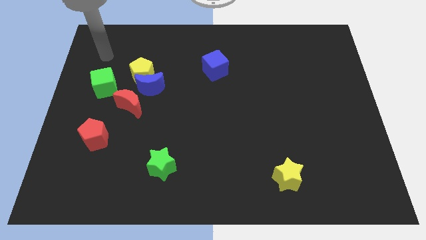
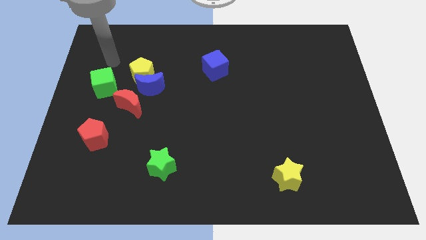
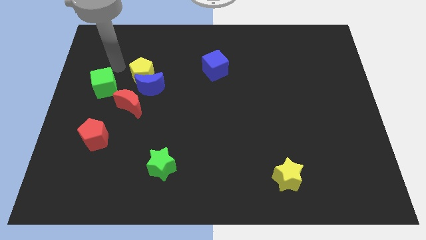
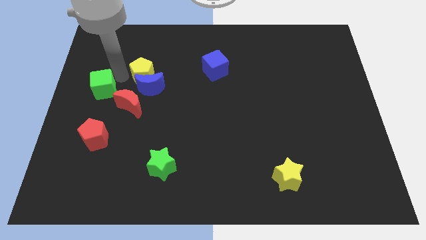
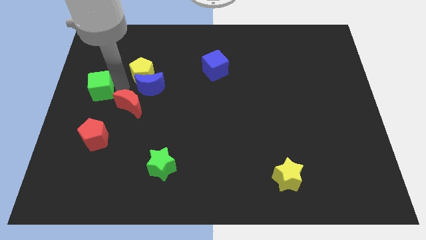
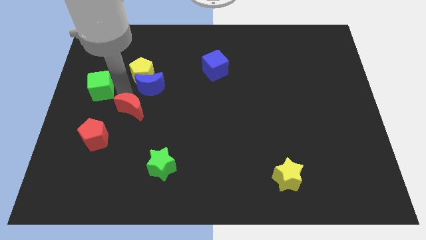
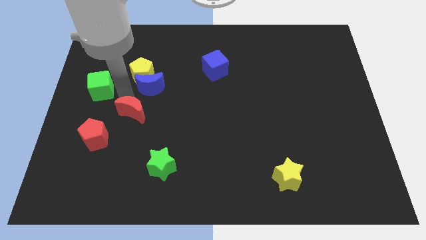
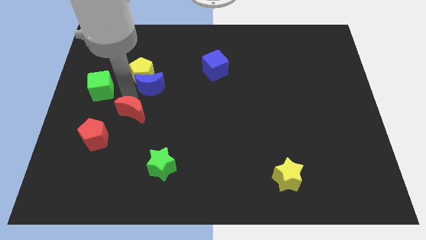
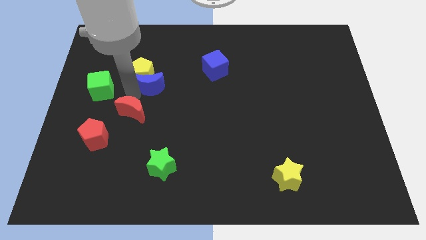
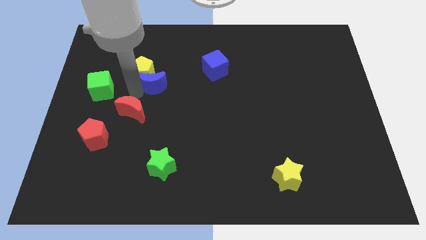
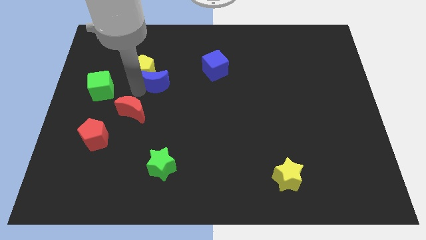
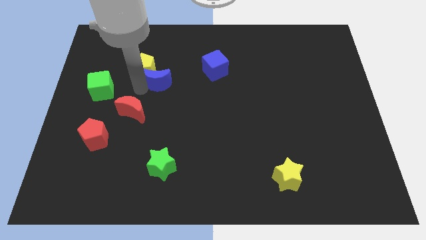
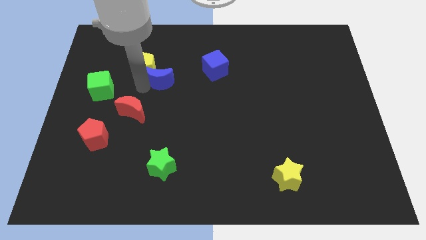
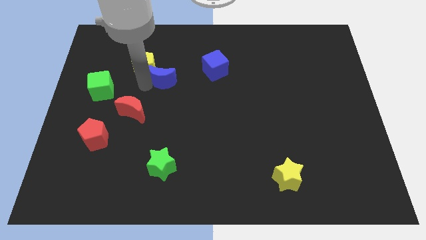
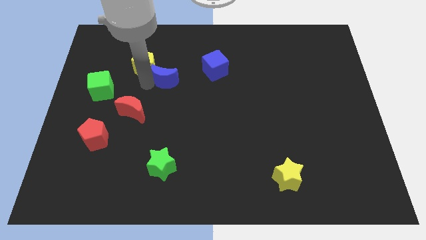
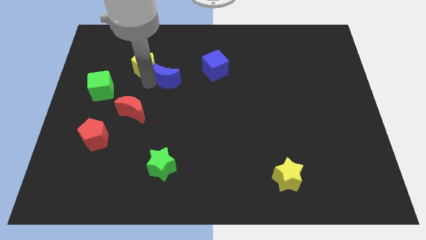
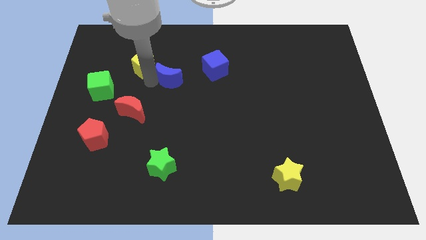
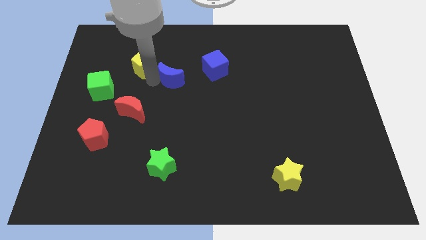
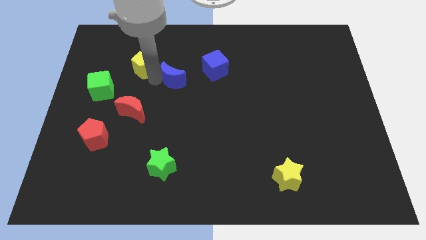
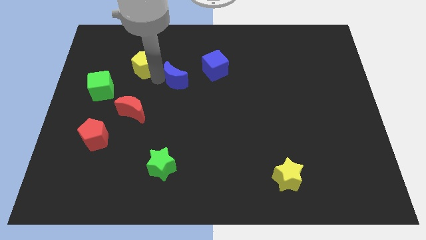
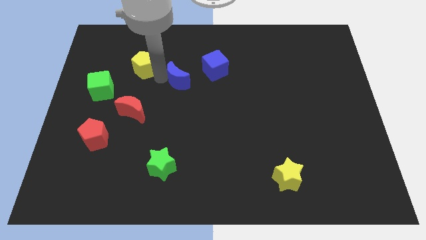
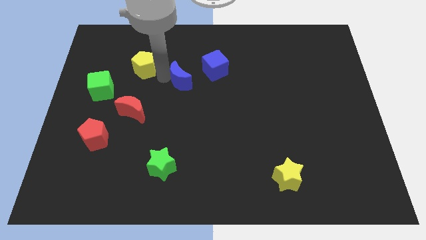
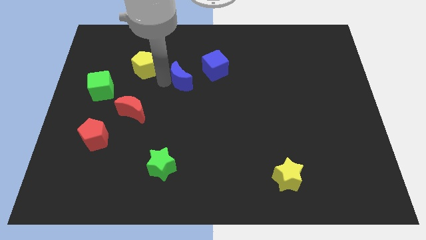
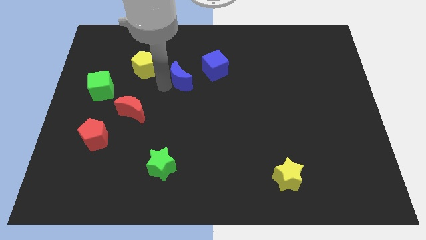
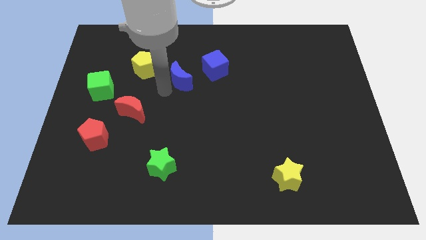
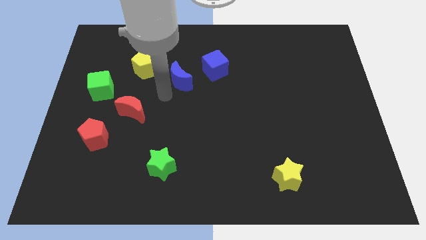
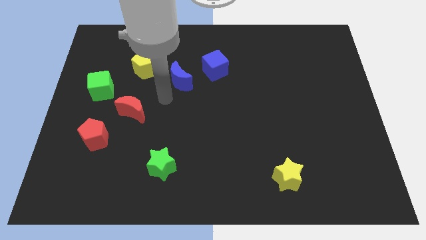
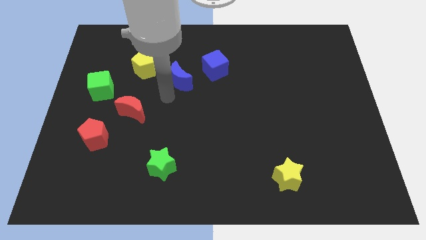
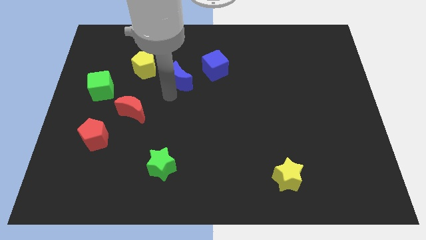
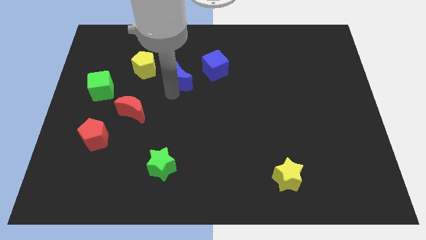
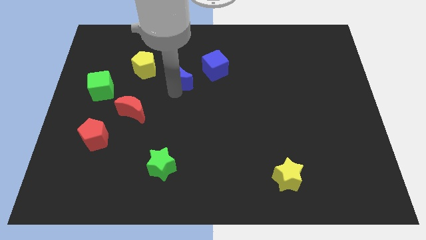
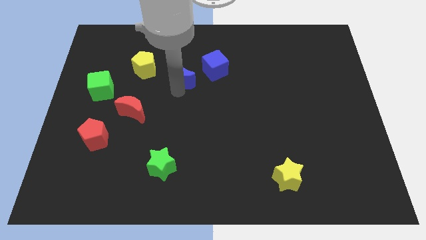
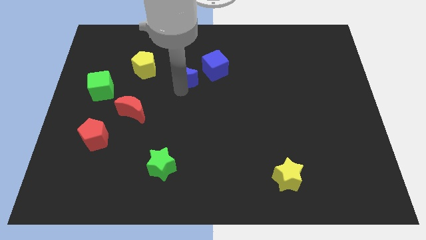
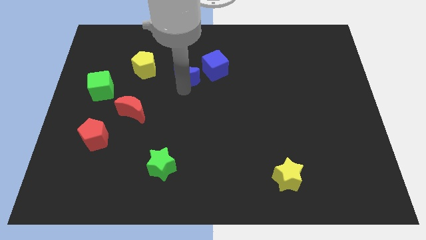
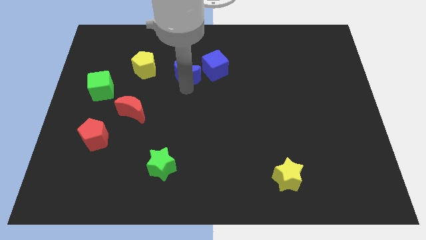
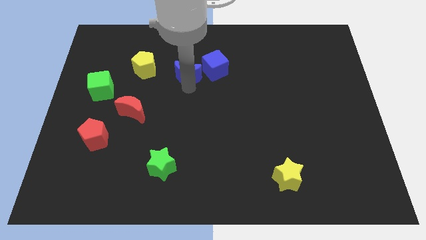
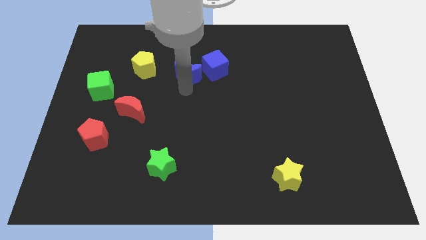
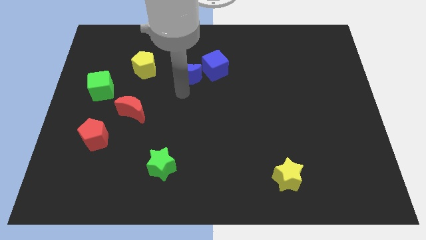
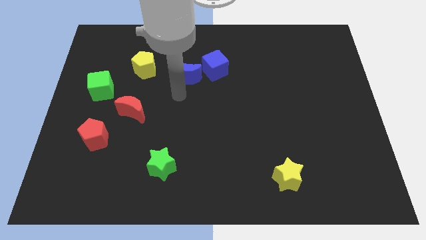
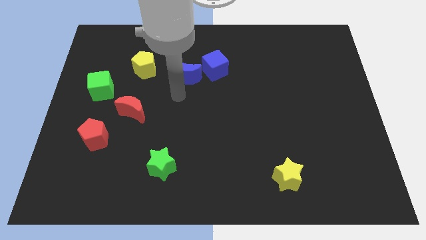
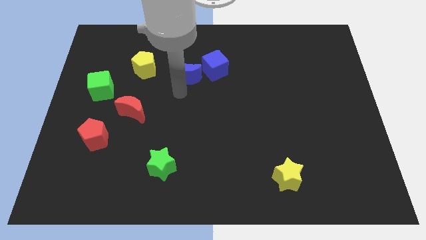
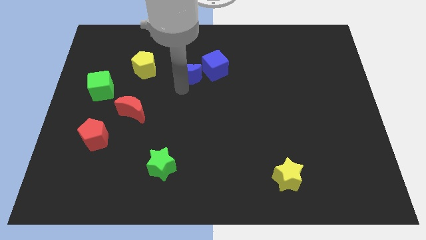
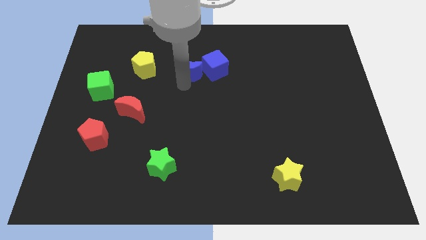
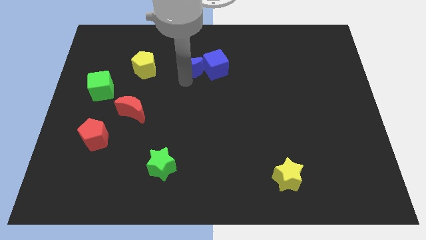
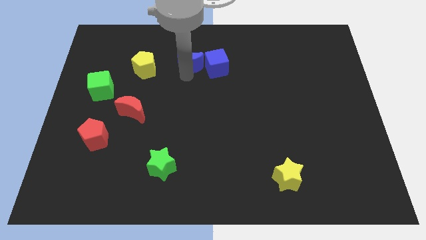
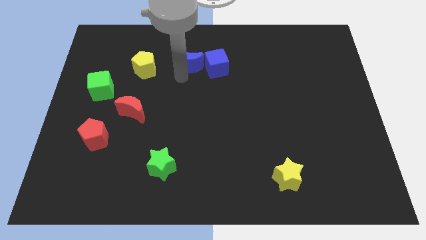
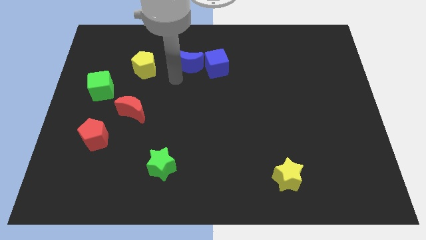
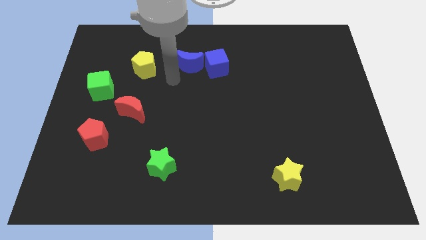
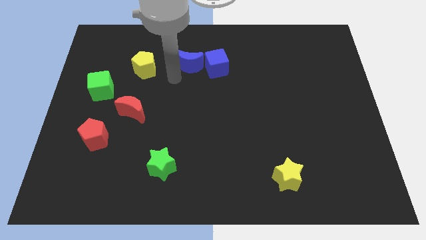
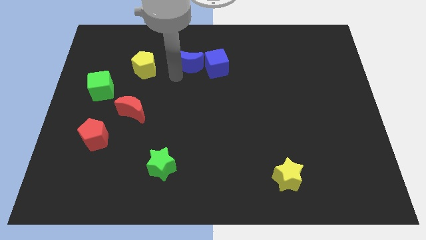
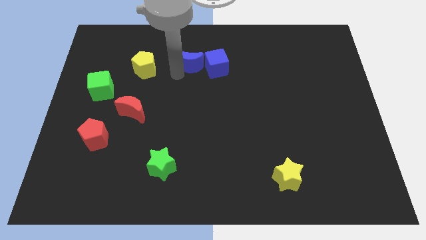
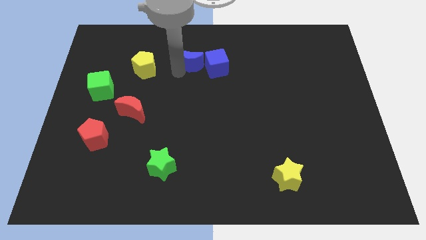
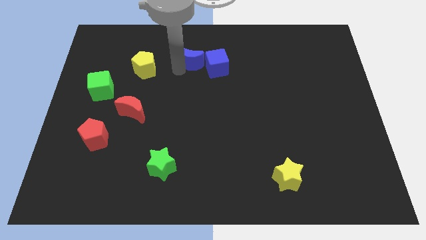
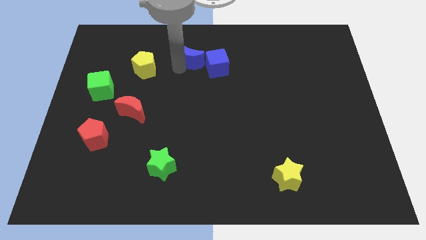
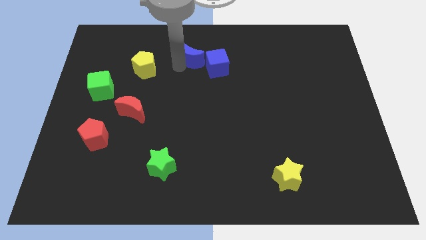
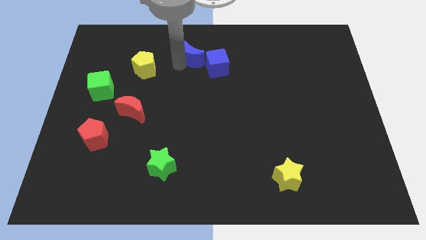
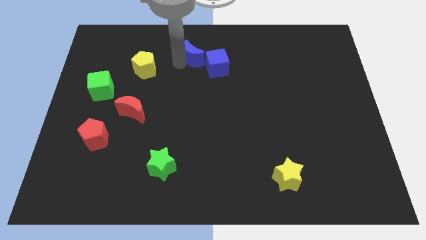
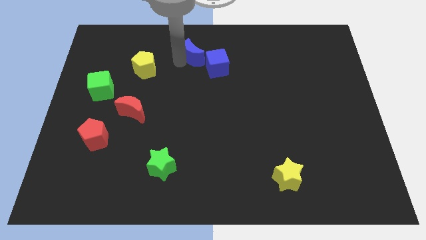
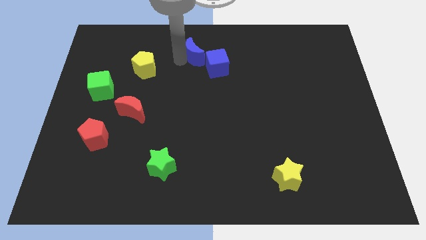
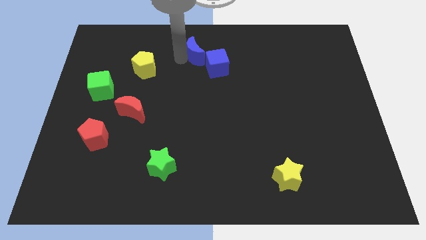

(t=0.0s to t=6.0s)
move the blue moon to the towards your base
